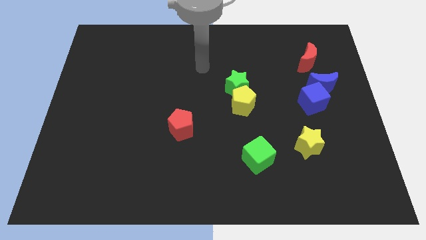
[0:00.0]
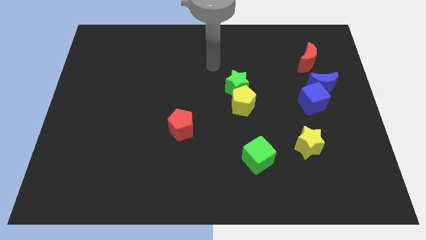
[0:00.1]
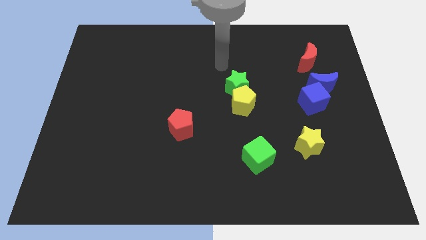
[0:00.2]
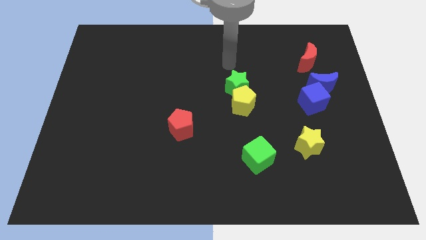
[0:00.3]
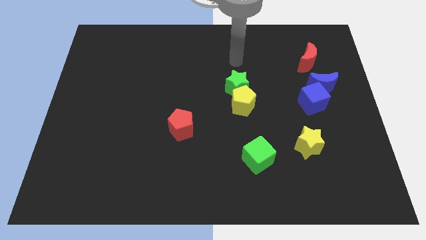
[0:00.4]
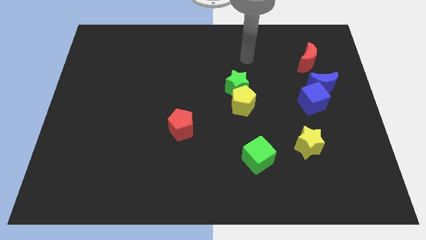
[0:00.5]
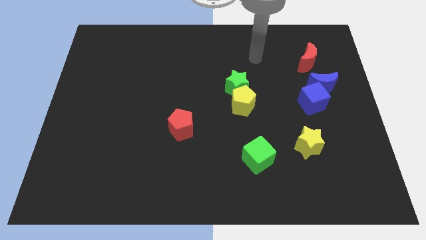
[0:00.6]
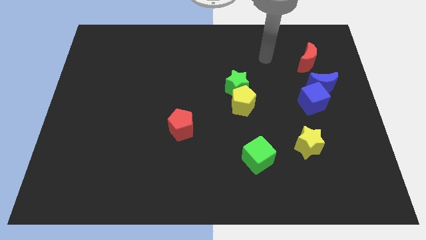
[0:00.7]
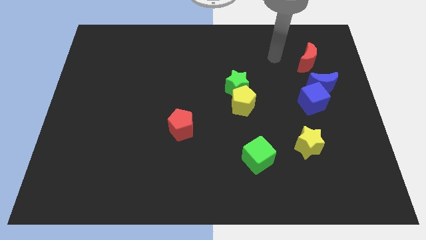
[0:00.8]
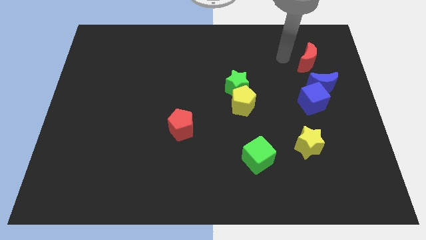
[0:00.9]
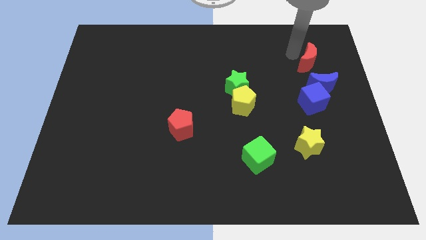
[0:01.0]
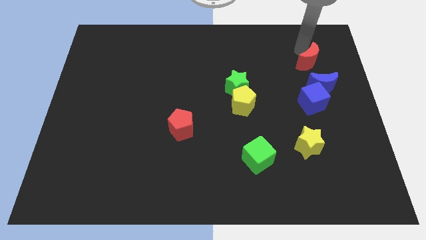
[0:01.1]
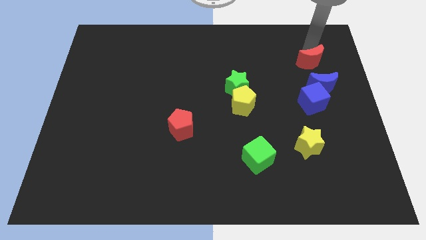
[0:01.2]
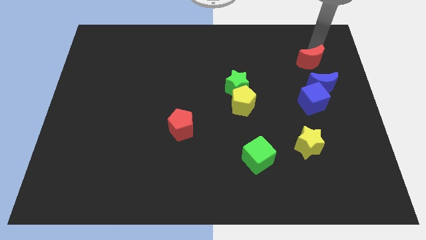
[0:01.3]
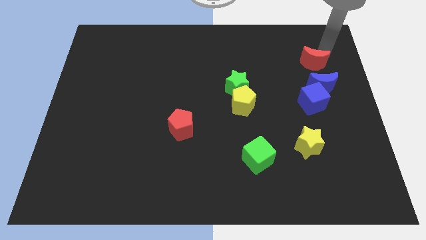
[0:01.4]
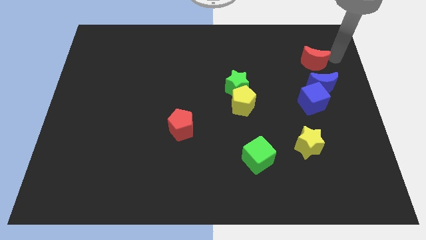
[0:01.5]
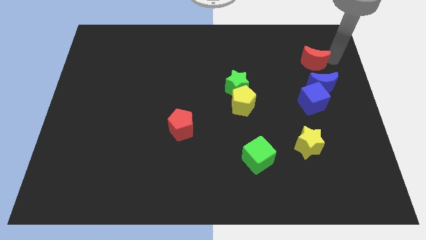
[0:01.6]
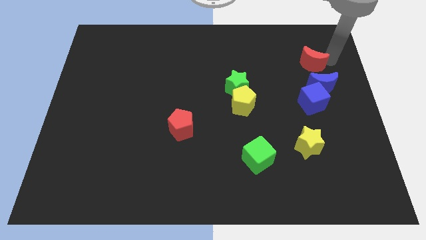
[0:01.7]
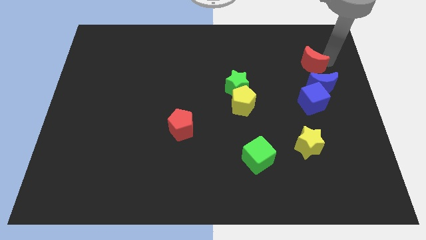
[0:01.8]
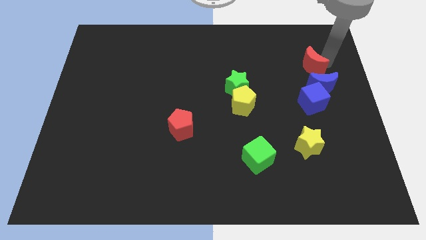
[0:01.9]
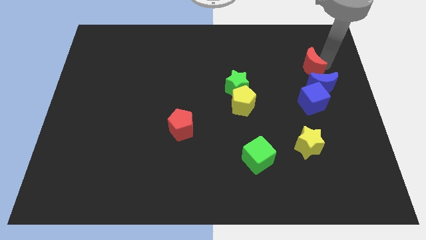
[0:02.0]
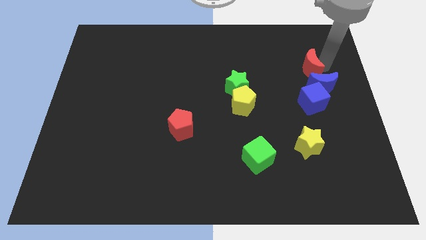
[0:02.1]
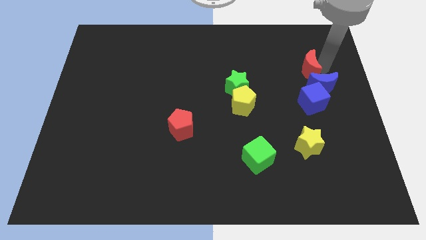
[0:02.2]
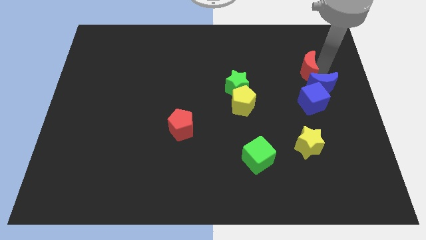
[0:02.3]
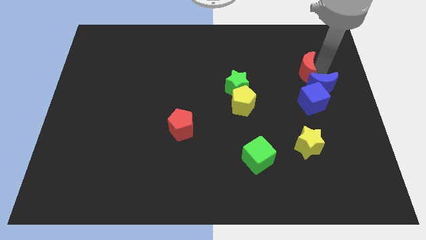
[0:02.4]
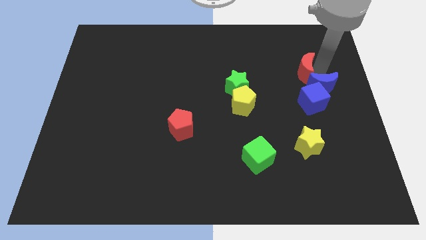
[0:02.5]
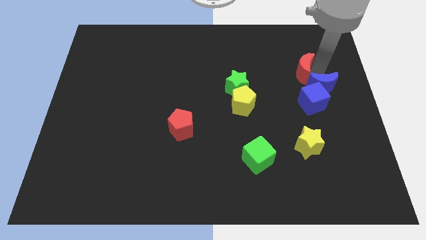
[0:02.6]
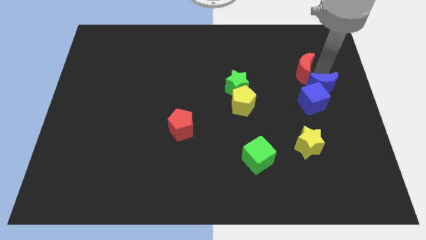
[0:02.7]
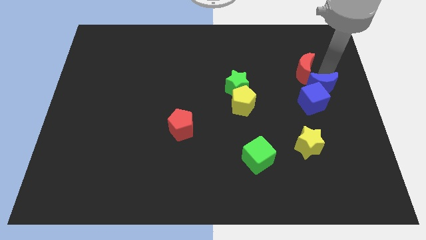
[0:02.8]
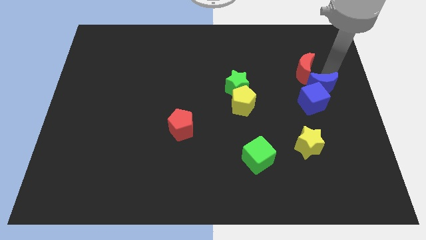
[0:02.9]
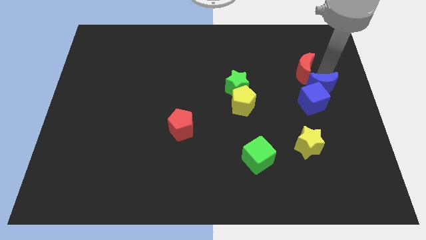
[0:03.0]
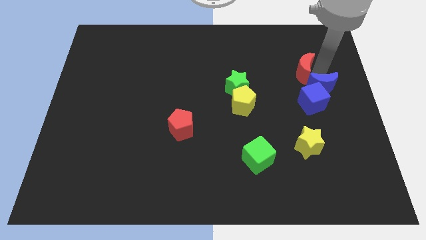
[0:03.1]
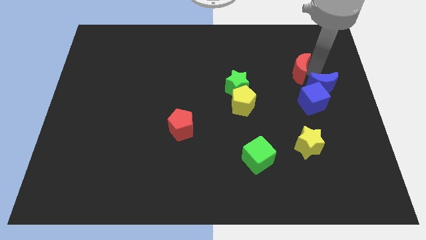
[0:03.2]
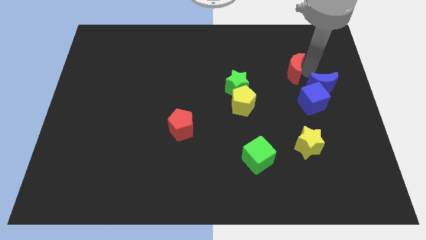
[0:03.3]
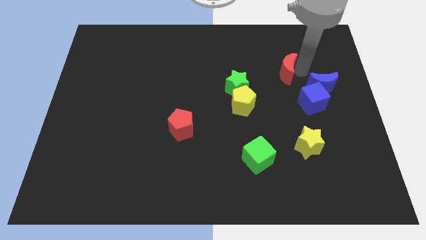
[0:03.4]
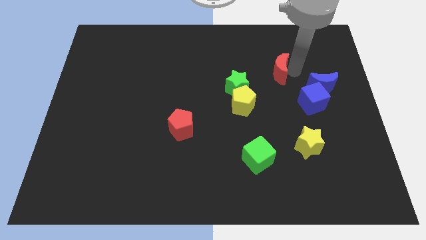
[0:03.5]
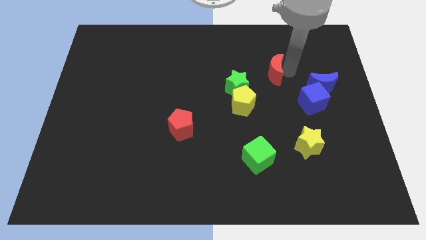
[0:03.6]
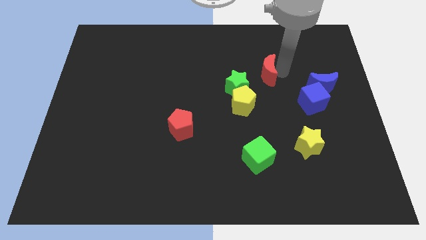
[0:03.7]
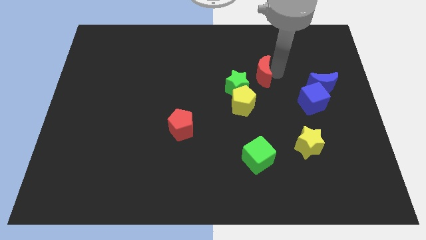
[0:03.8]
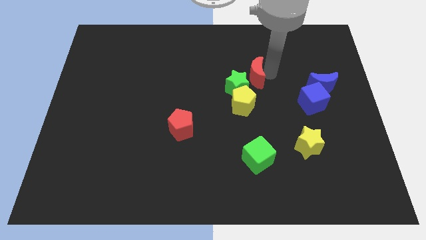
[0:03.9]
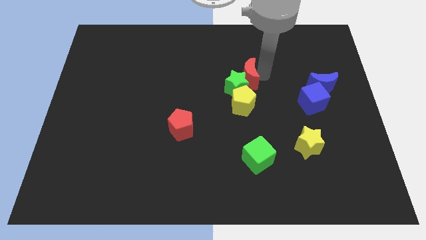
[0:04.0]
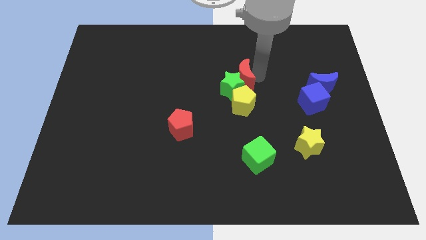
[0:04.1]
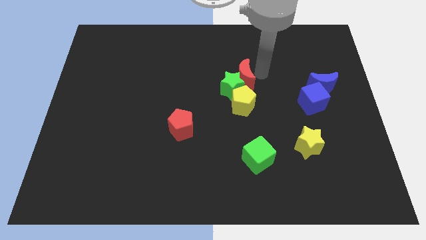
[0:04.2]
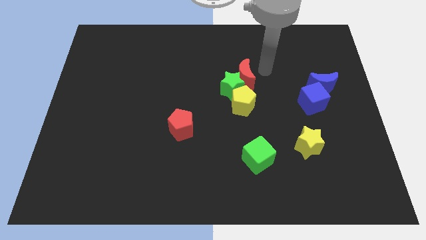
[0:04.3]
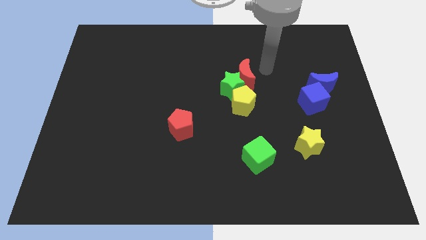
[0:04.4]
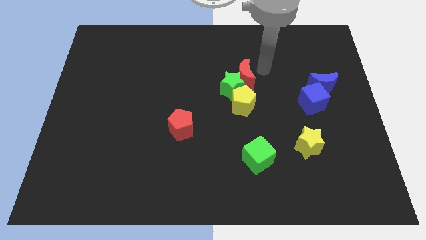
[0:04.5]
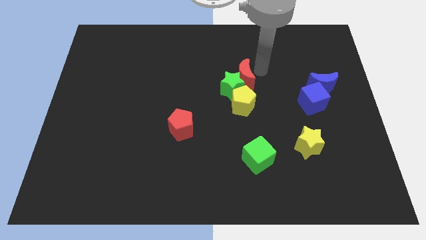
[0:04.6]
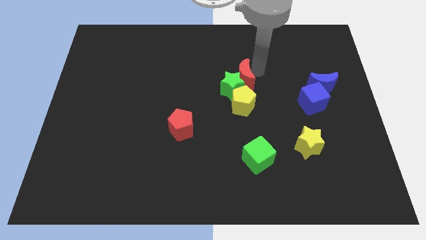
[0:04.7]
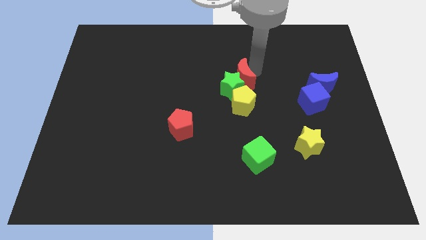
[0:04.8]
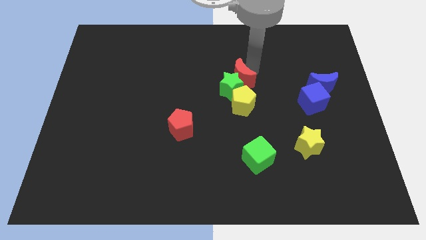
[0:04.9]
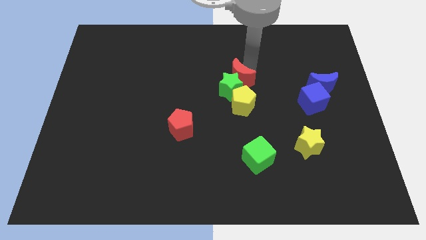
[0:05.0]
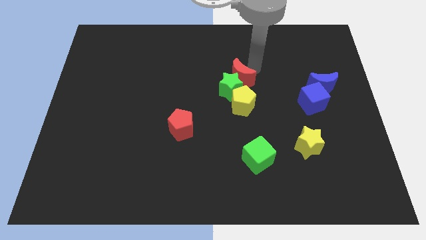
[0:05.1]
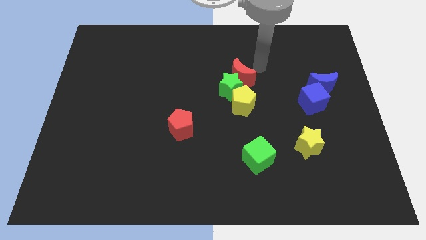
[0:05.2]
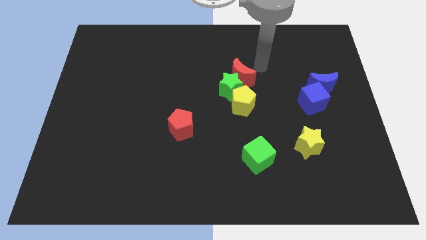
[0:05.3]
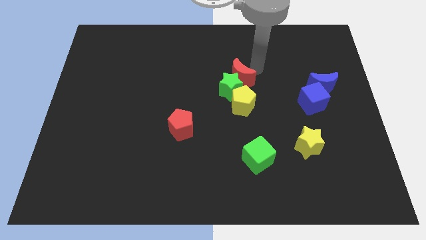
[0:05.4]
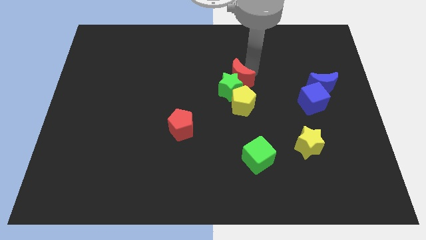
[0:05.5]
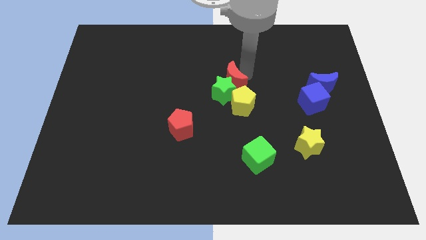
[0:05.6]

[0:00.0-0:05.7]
push the red moon to the top left side of the yellow pentagon

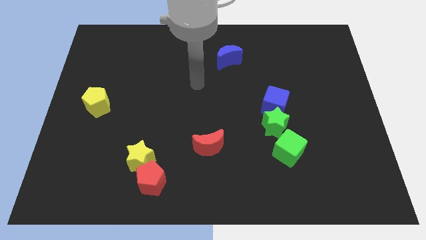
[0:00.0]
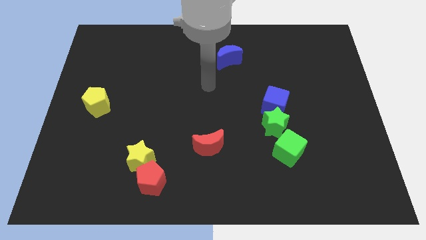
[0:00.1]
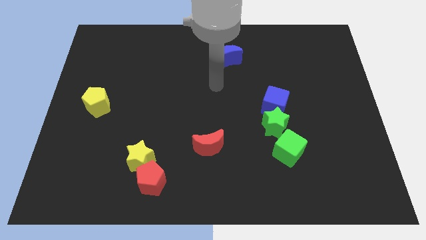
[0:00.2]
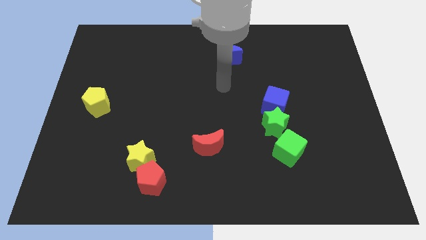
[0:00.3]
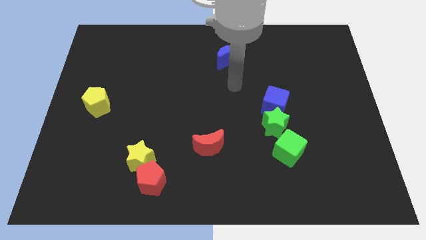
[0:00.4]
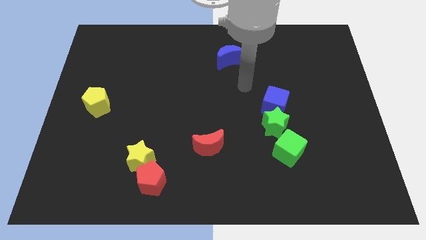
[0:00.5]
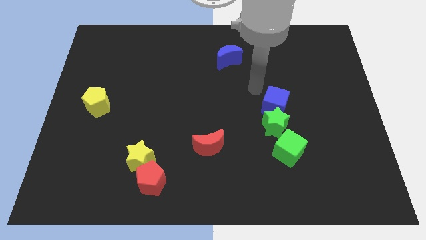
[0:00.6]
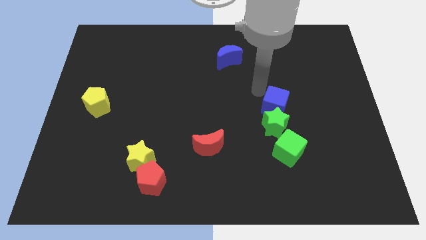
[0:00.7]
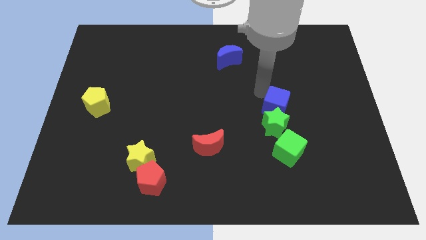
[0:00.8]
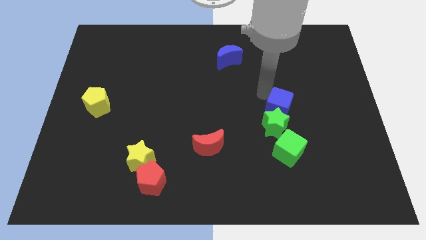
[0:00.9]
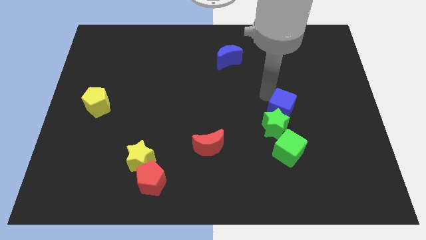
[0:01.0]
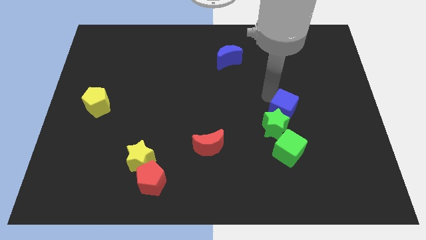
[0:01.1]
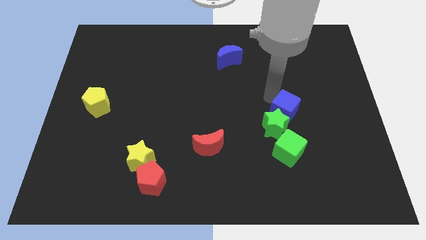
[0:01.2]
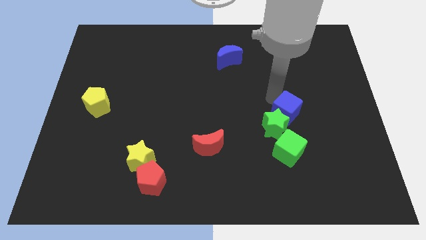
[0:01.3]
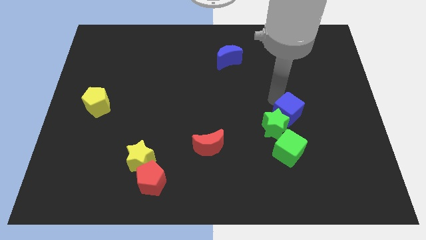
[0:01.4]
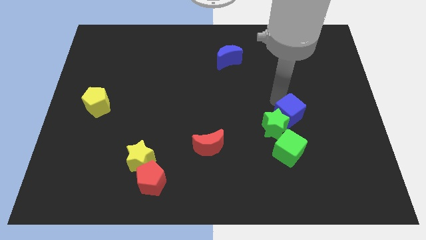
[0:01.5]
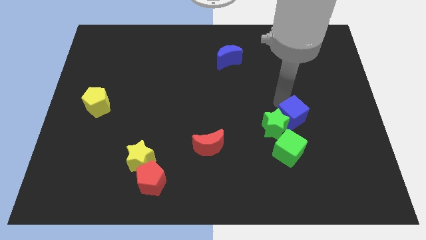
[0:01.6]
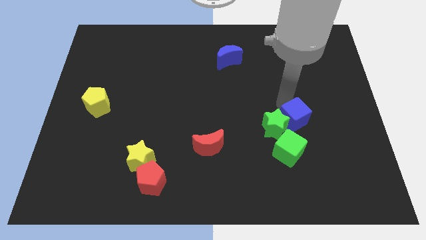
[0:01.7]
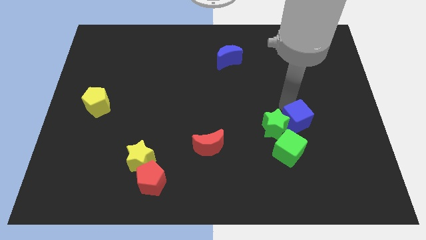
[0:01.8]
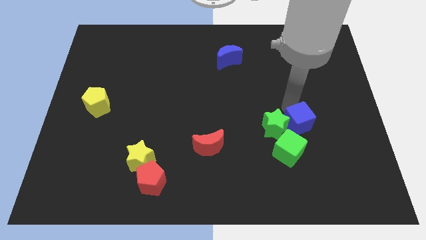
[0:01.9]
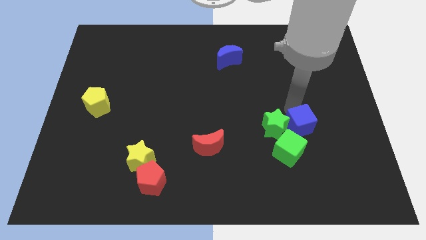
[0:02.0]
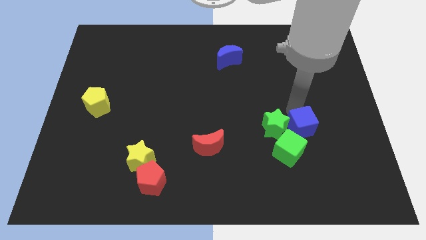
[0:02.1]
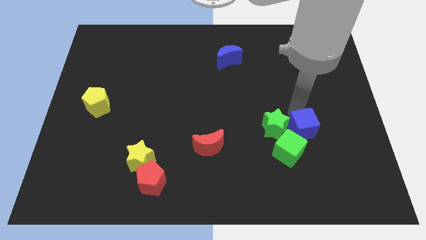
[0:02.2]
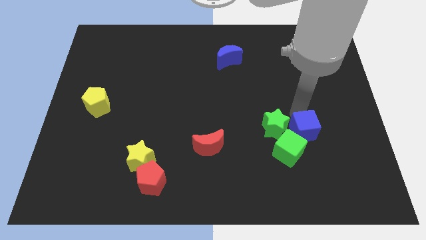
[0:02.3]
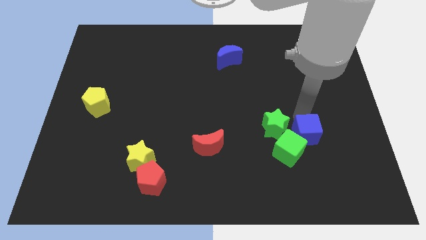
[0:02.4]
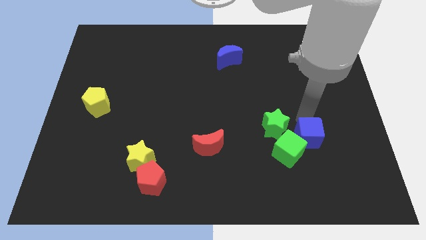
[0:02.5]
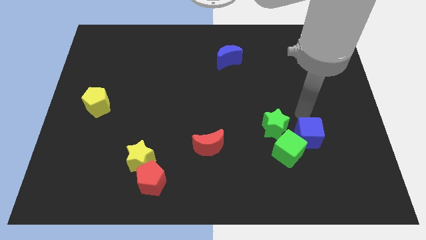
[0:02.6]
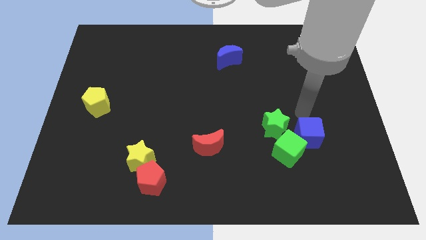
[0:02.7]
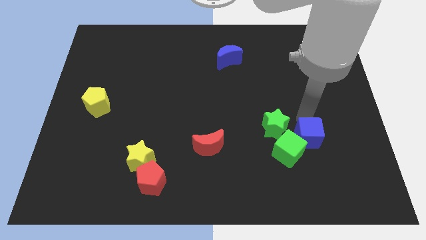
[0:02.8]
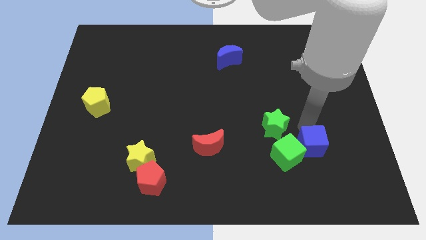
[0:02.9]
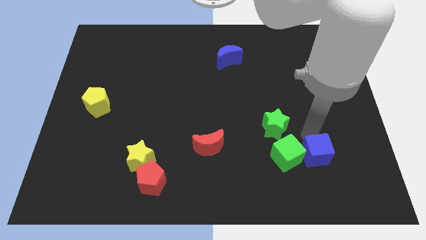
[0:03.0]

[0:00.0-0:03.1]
move the blue cube to the bottom right of the green cube
